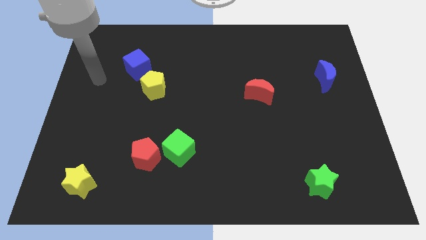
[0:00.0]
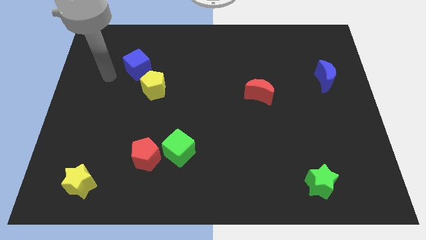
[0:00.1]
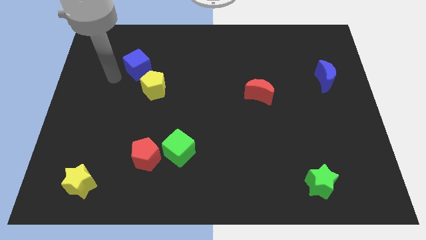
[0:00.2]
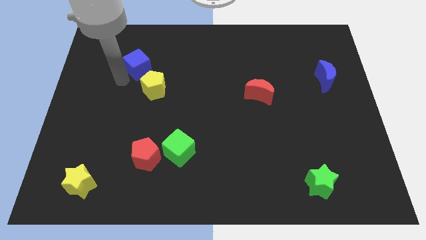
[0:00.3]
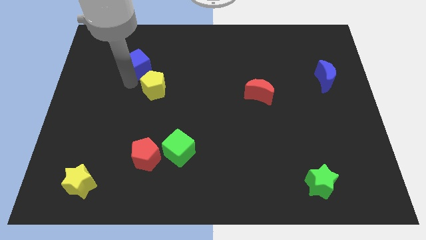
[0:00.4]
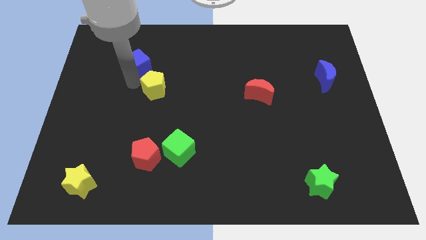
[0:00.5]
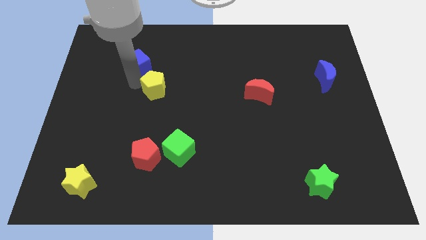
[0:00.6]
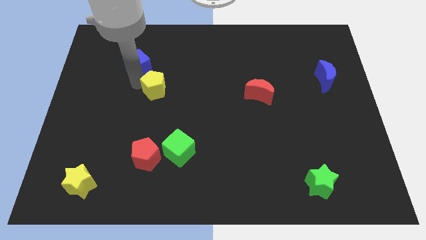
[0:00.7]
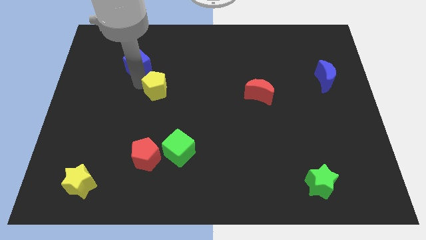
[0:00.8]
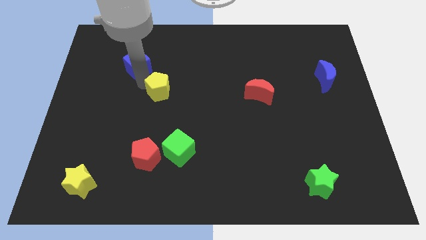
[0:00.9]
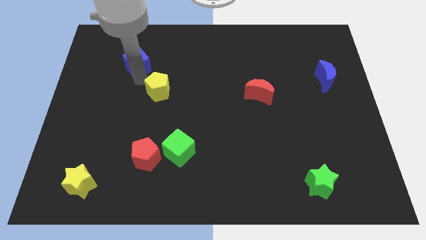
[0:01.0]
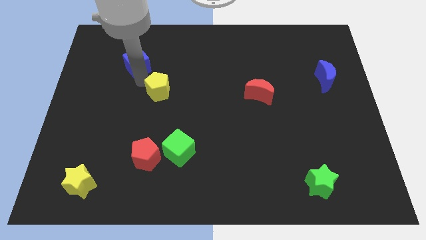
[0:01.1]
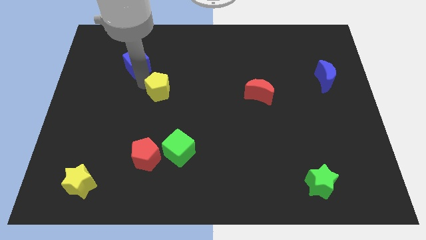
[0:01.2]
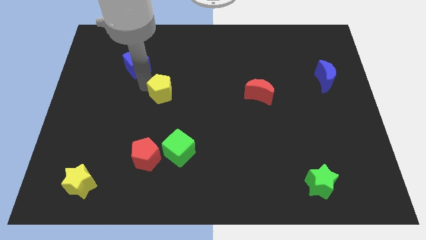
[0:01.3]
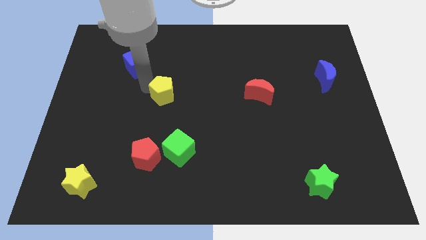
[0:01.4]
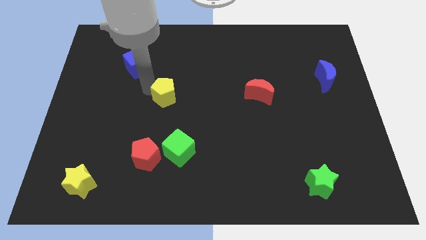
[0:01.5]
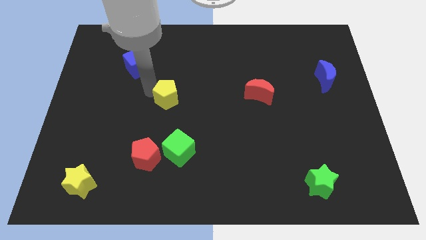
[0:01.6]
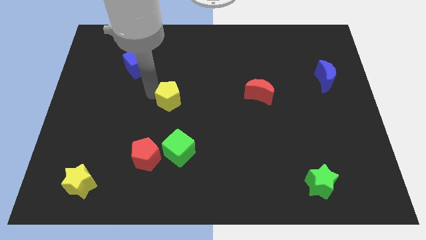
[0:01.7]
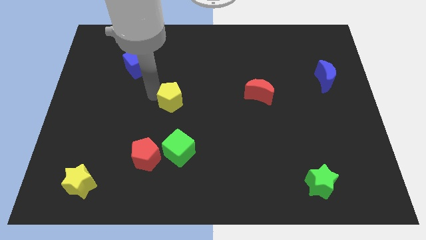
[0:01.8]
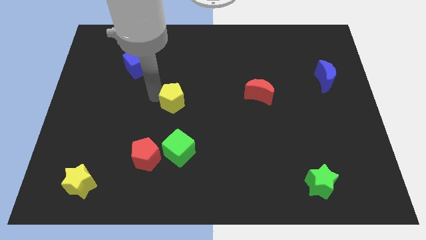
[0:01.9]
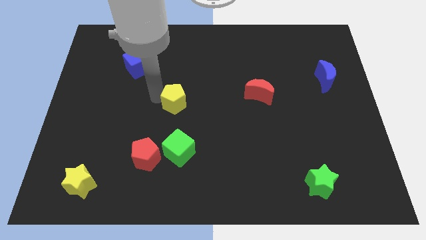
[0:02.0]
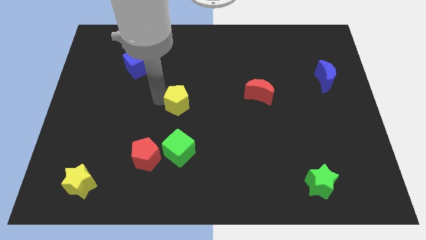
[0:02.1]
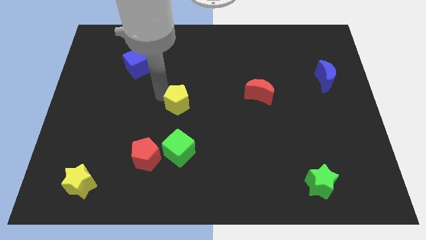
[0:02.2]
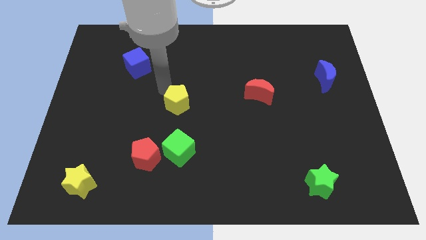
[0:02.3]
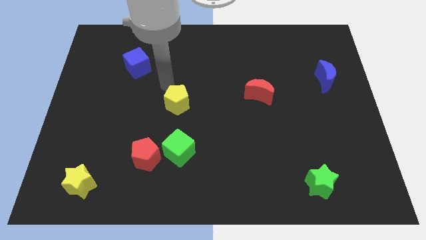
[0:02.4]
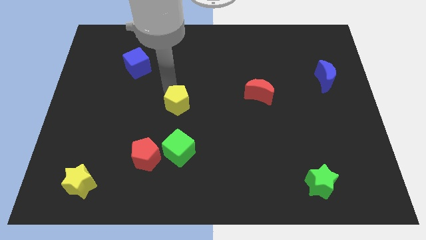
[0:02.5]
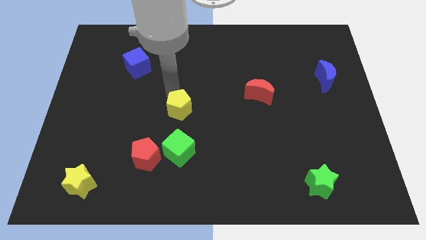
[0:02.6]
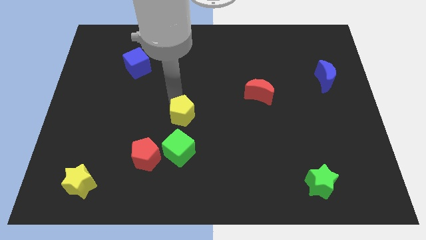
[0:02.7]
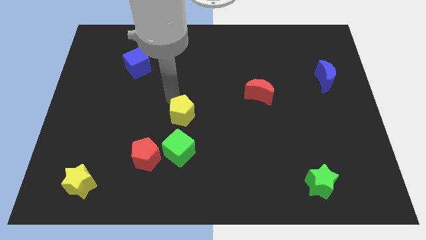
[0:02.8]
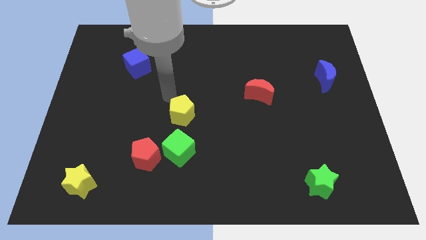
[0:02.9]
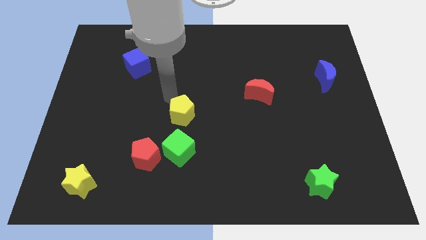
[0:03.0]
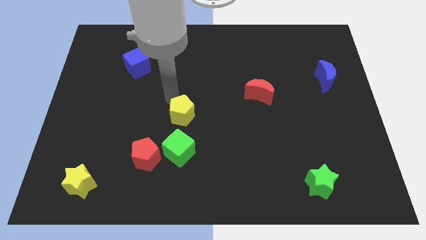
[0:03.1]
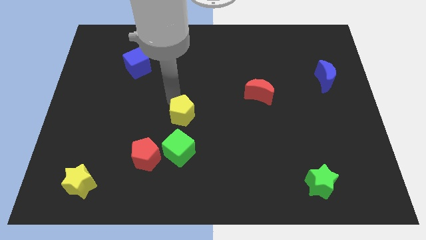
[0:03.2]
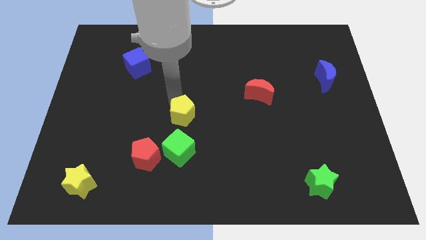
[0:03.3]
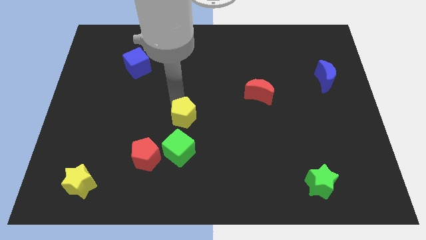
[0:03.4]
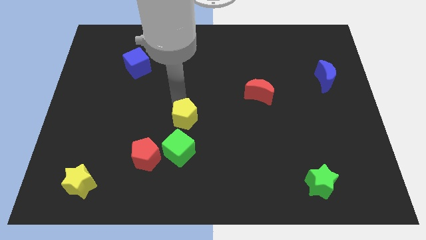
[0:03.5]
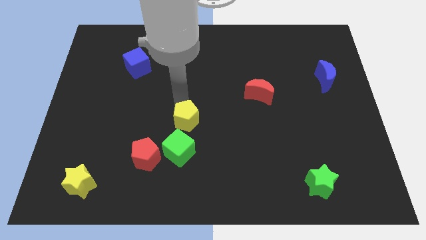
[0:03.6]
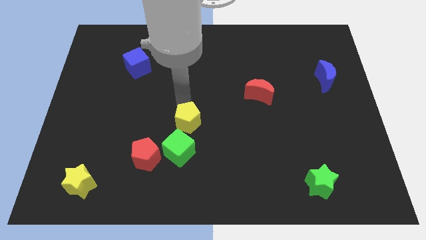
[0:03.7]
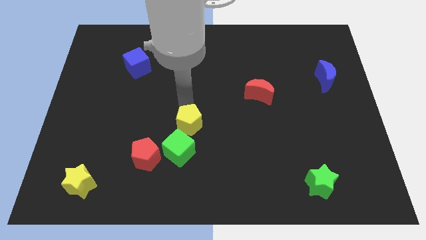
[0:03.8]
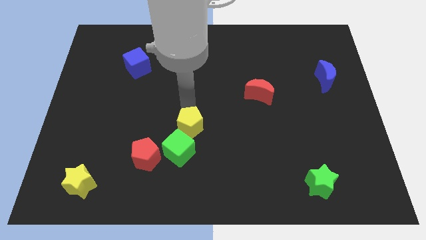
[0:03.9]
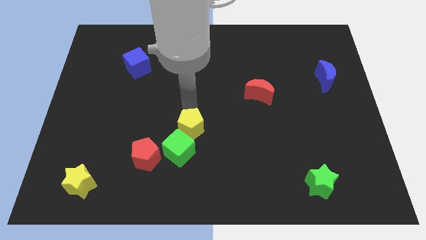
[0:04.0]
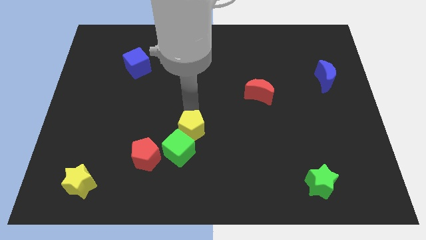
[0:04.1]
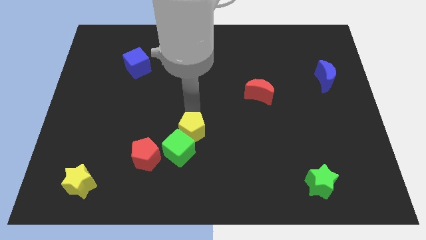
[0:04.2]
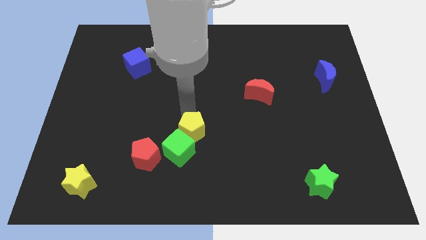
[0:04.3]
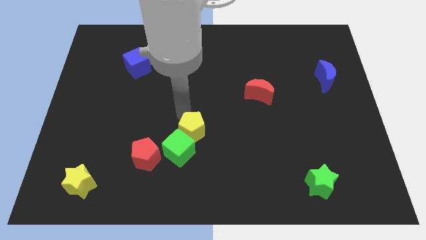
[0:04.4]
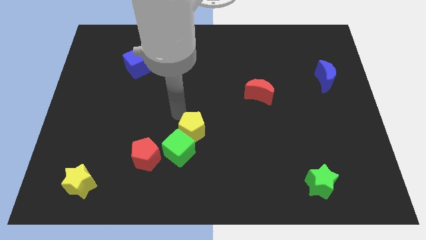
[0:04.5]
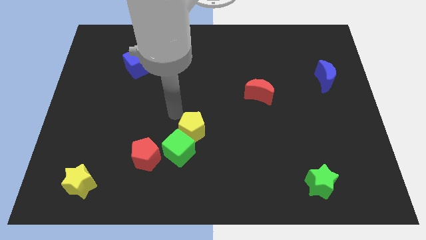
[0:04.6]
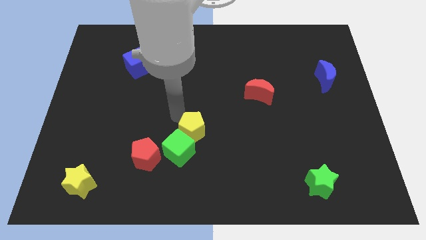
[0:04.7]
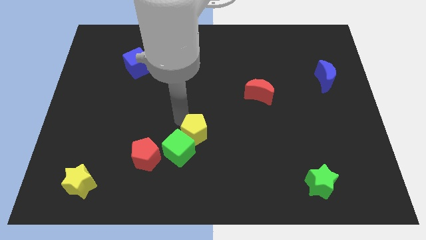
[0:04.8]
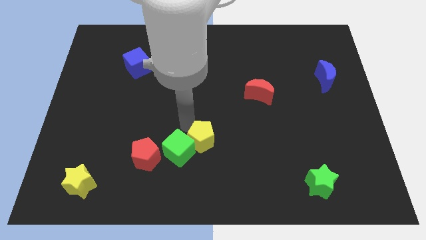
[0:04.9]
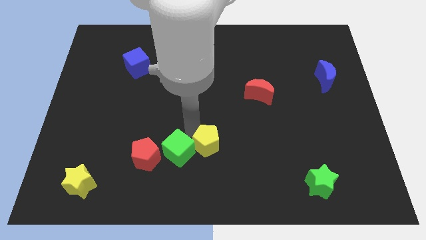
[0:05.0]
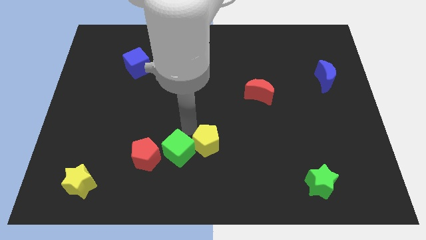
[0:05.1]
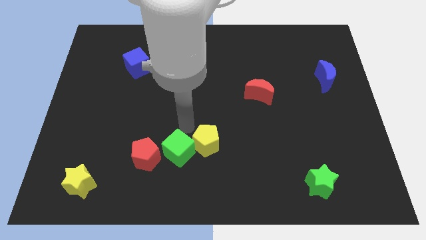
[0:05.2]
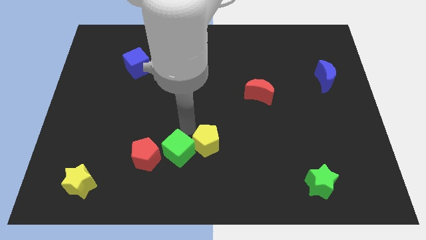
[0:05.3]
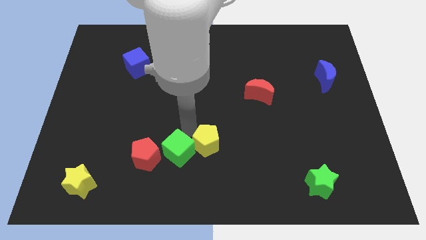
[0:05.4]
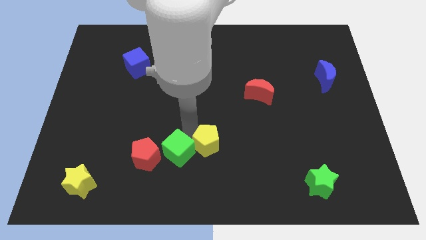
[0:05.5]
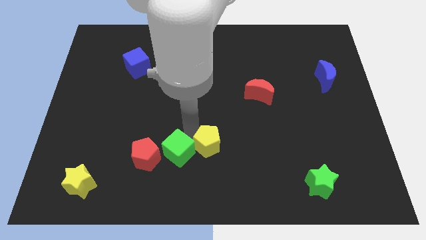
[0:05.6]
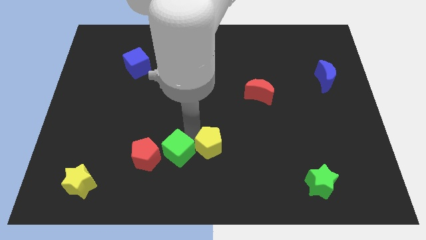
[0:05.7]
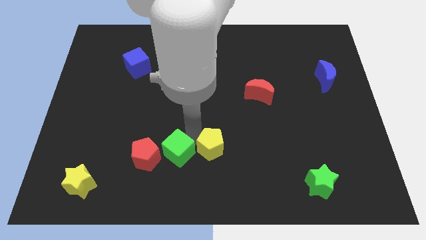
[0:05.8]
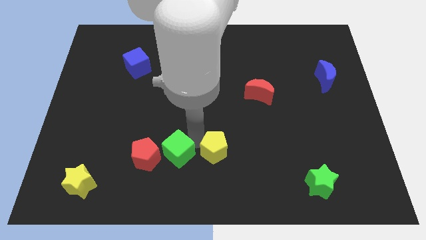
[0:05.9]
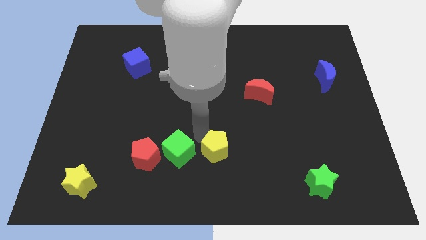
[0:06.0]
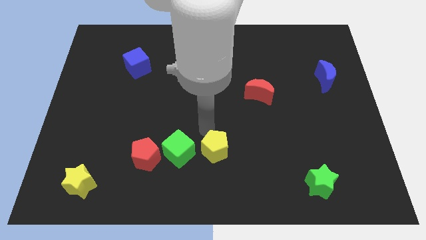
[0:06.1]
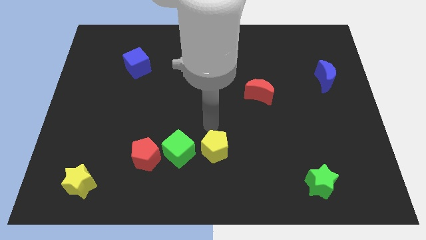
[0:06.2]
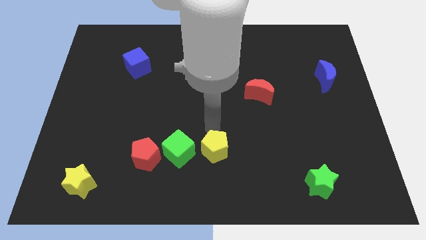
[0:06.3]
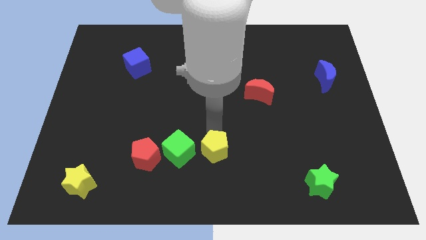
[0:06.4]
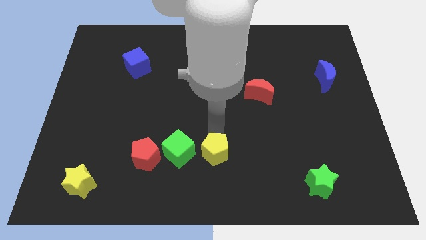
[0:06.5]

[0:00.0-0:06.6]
push the yellow pentagon to the bottom
